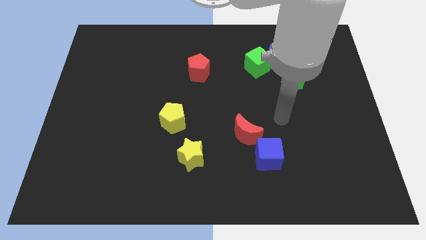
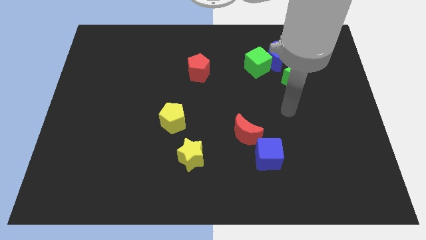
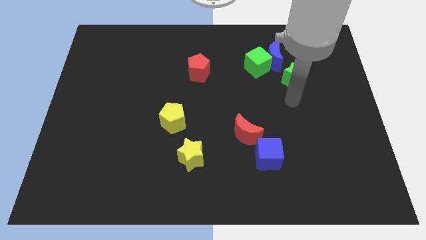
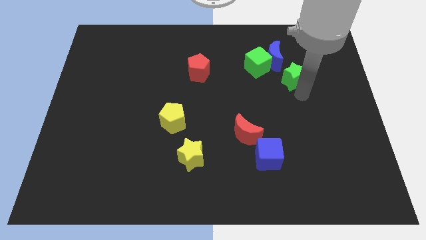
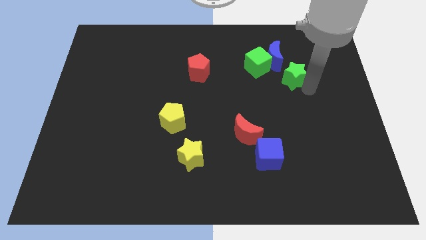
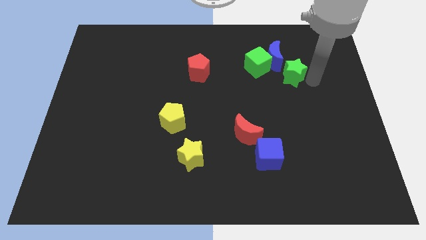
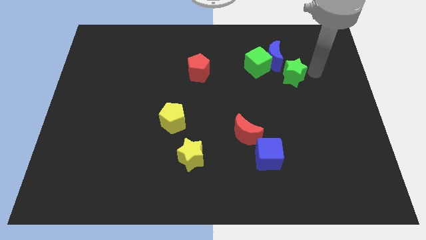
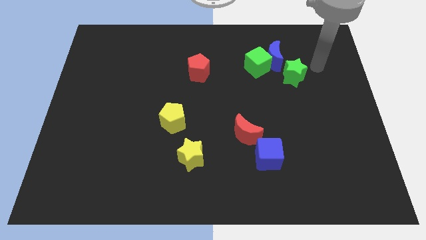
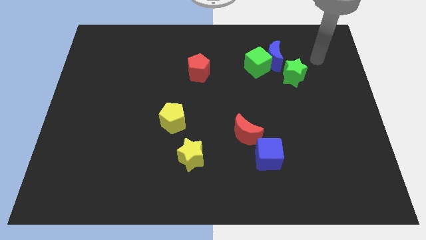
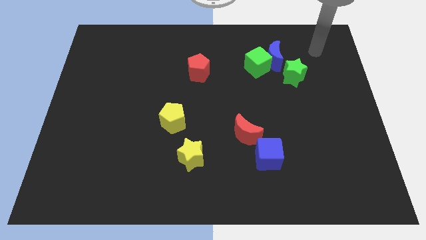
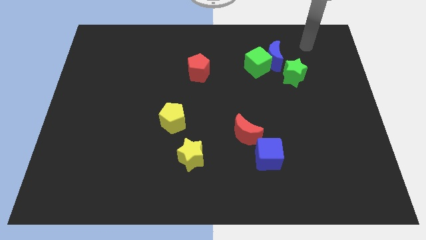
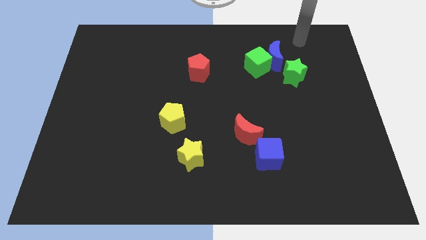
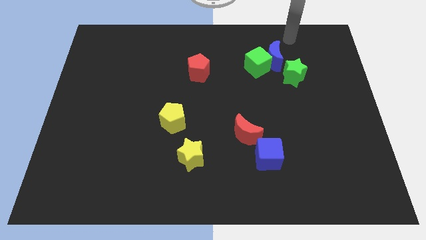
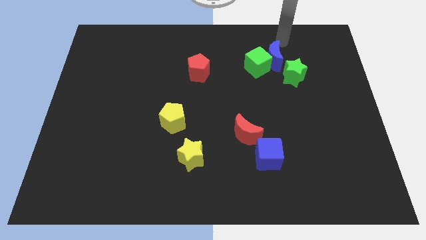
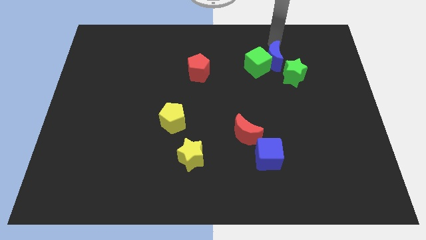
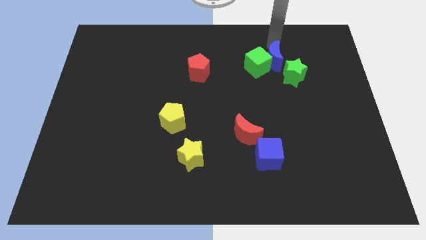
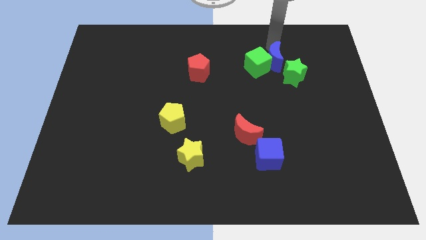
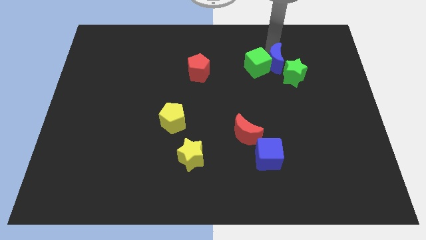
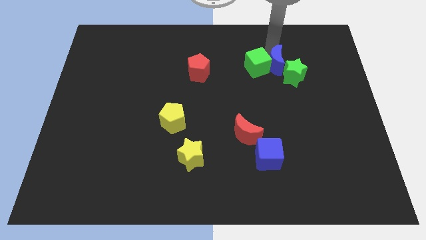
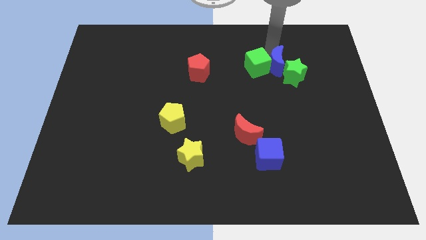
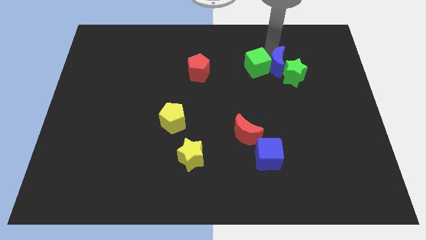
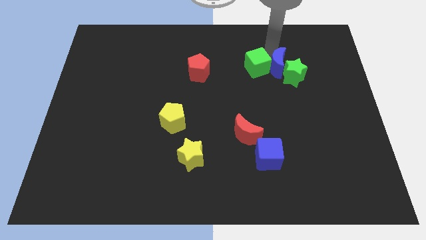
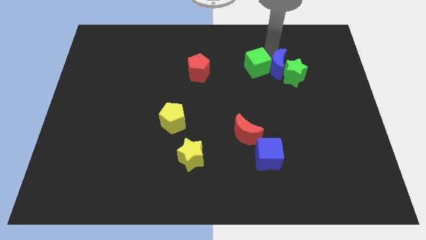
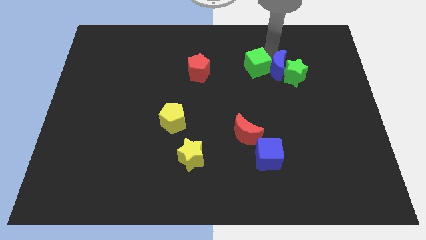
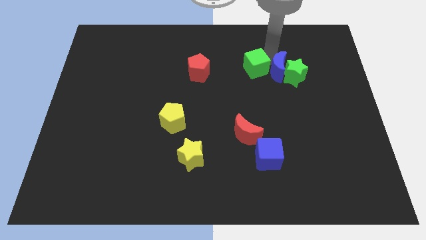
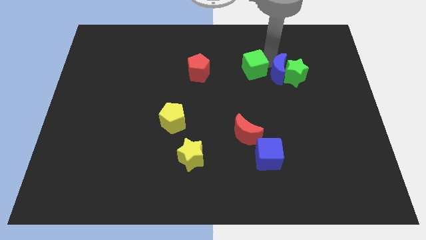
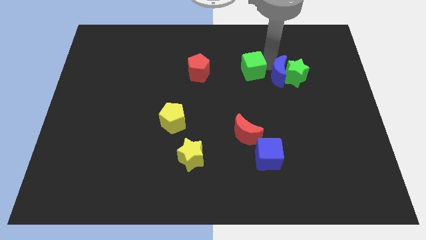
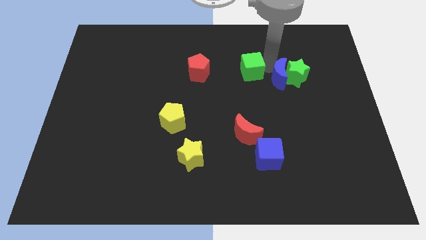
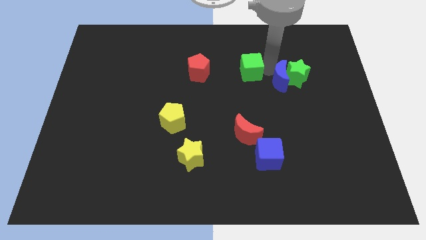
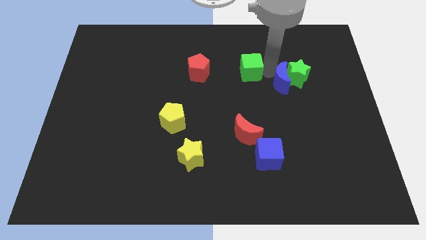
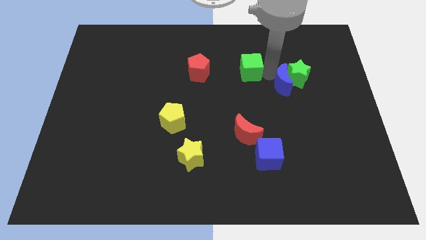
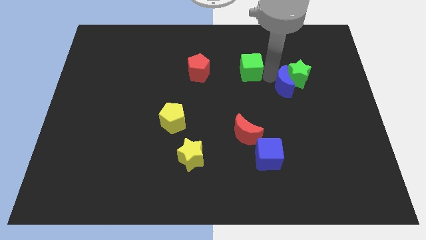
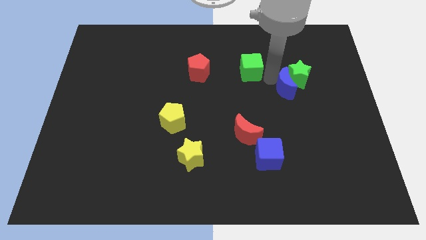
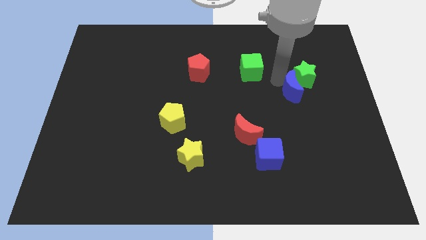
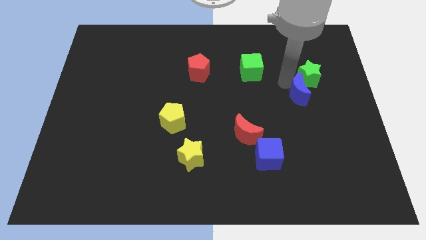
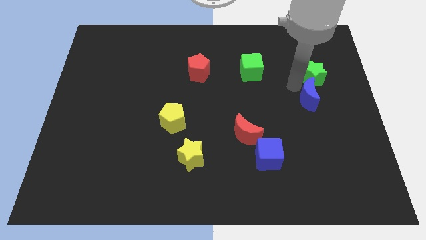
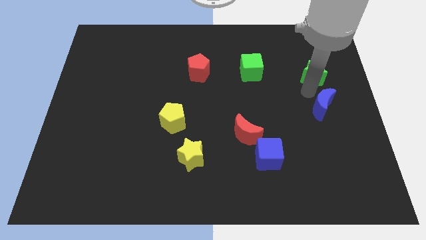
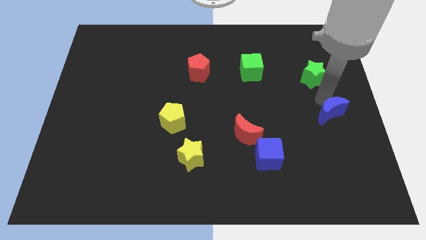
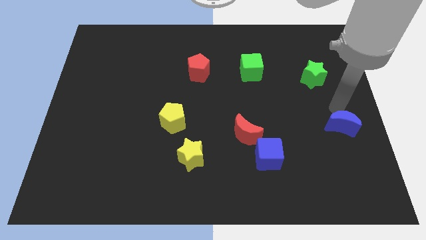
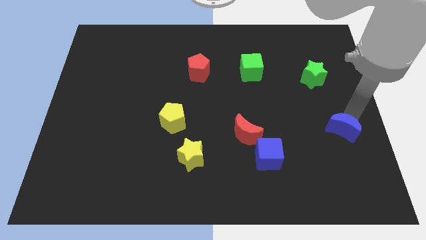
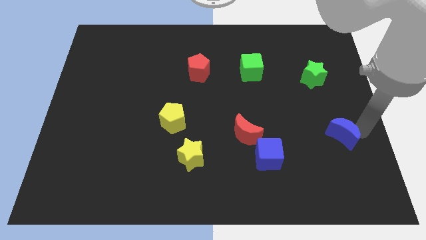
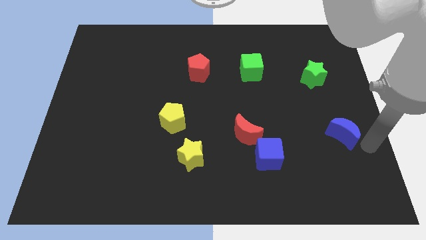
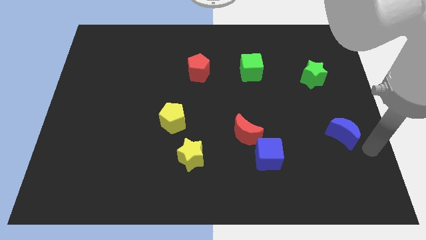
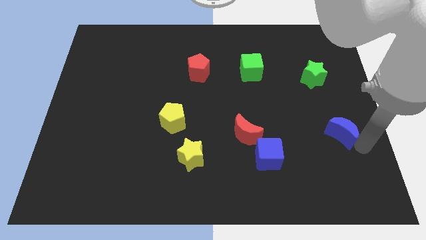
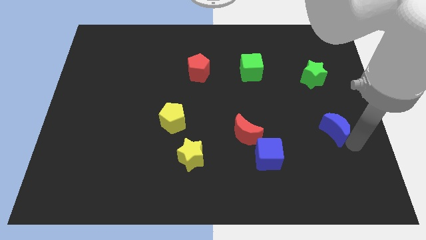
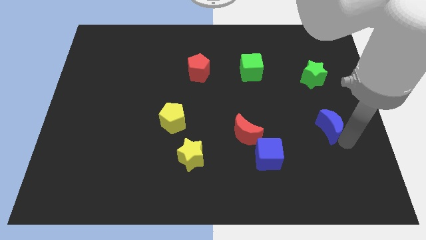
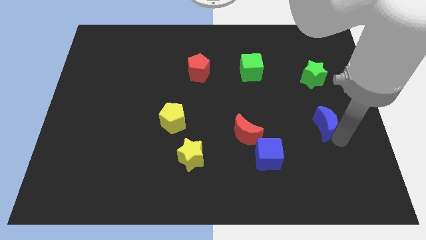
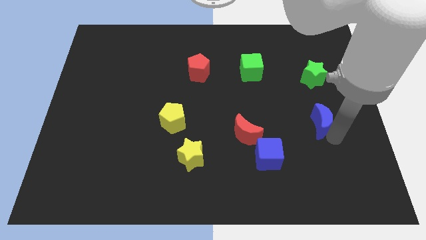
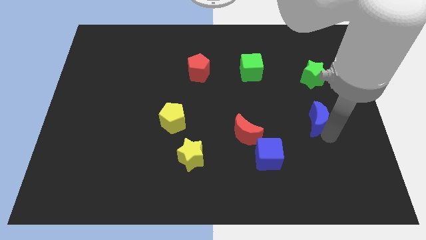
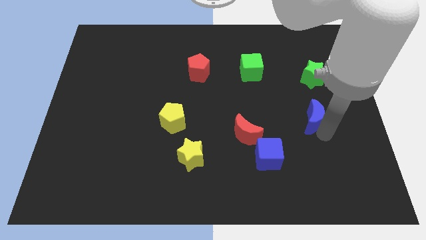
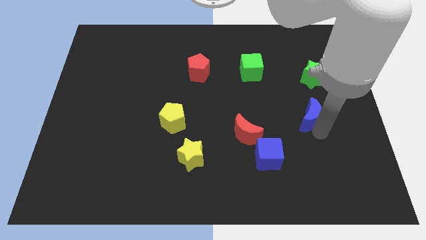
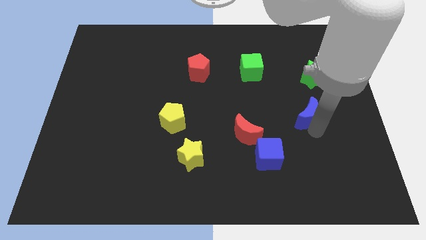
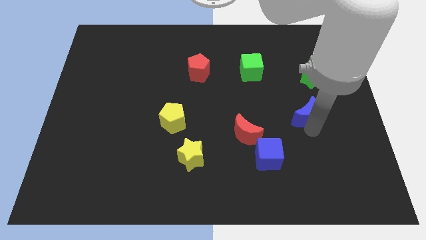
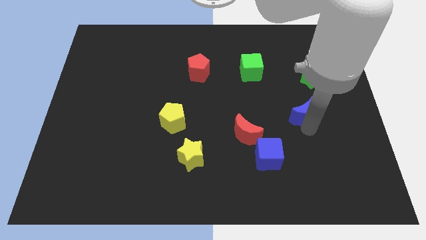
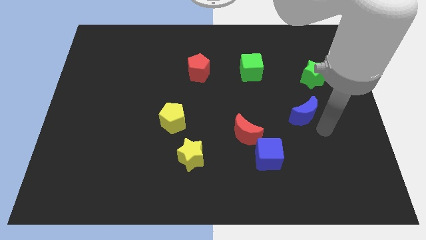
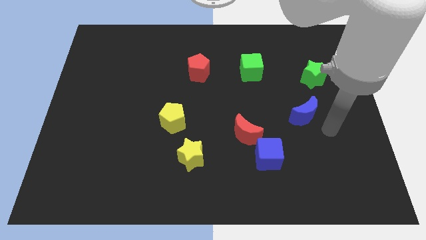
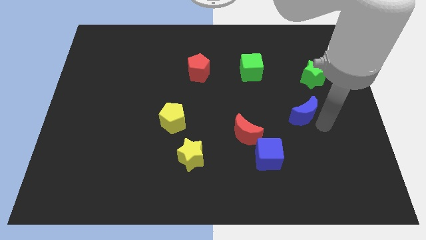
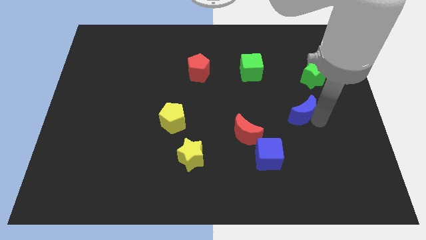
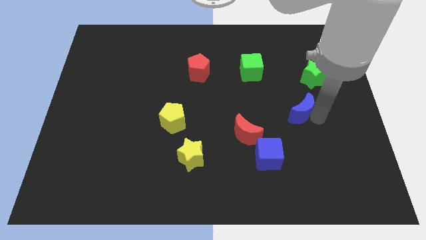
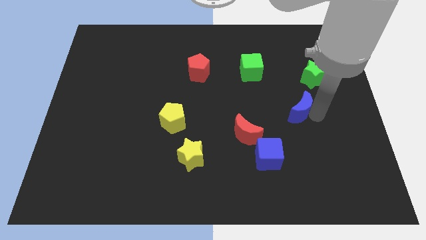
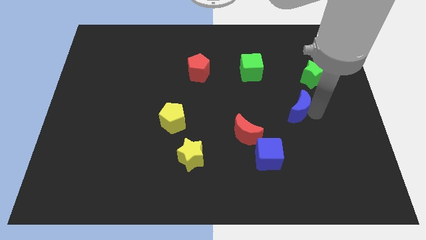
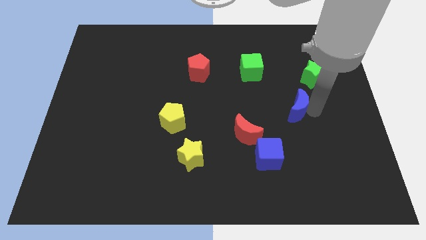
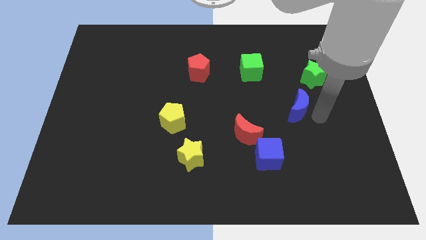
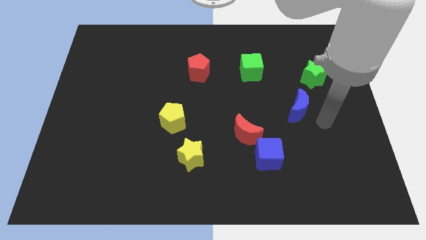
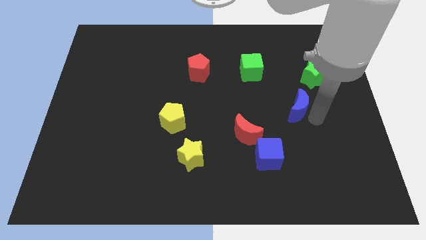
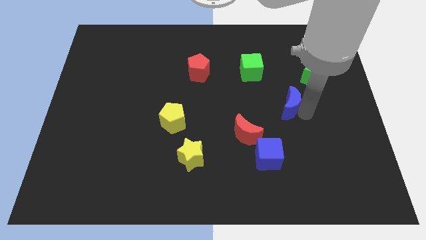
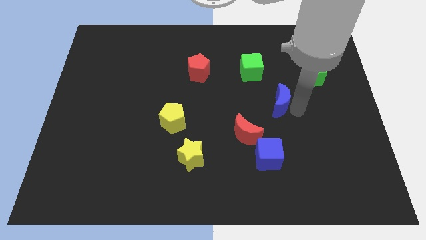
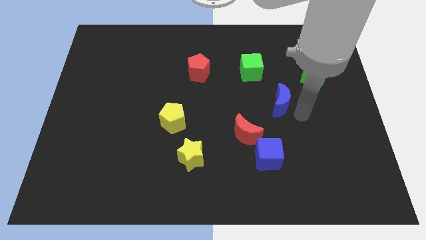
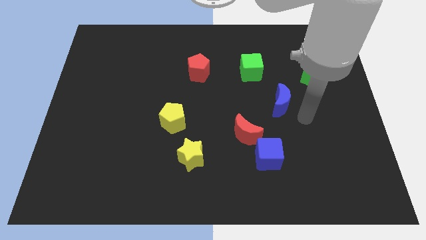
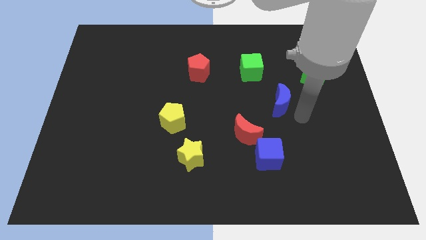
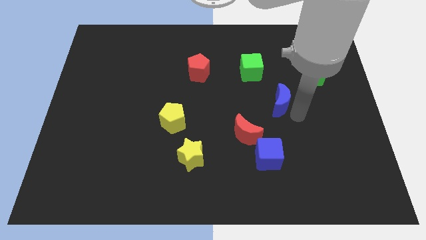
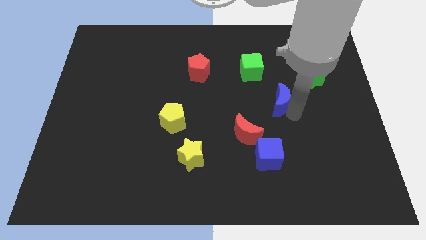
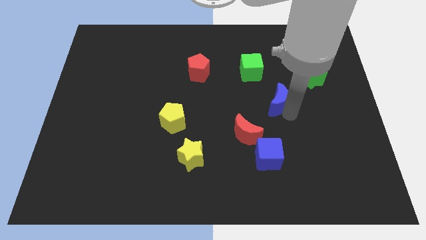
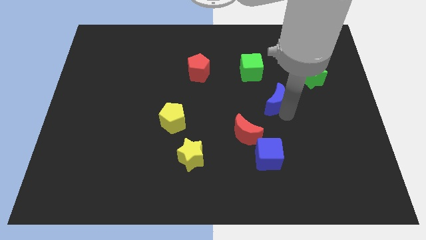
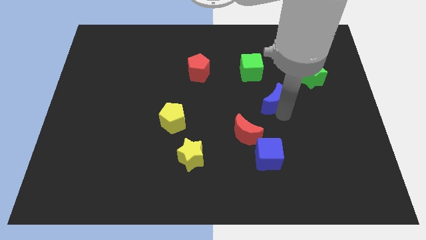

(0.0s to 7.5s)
slightly push the blue moon down and left diagonally

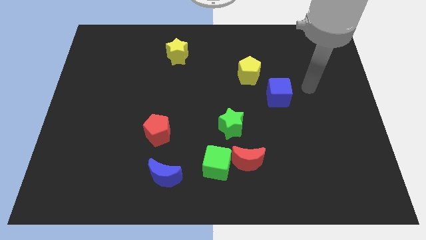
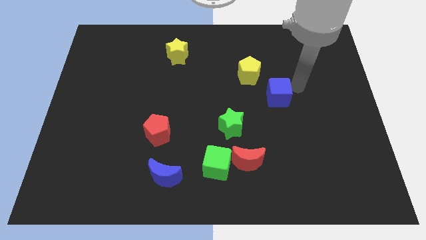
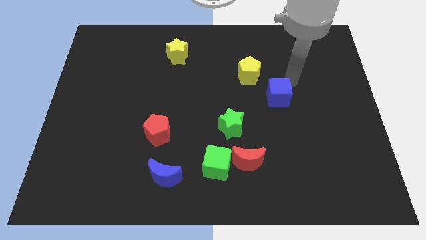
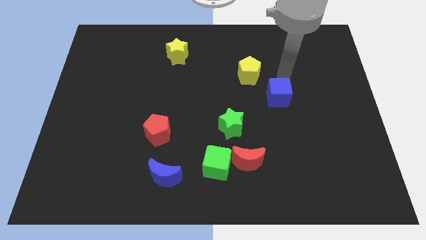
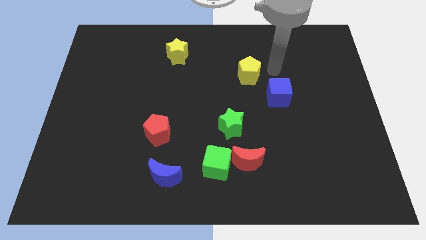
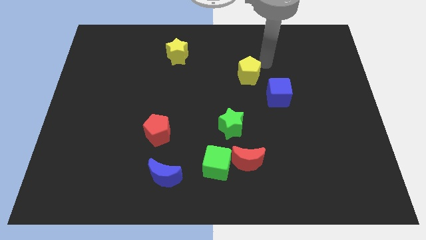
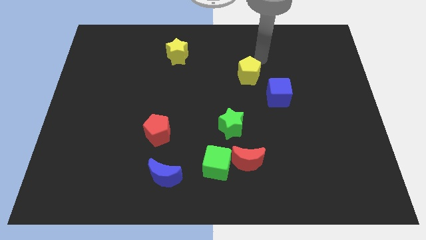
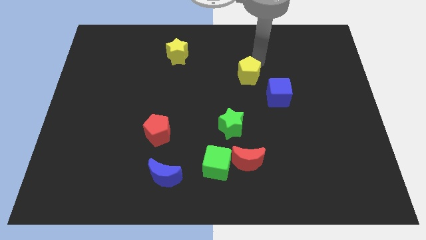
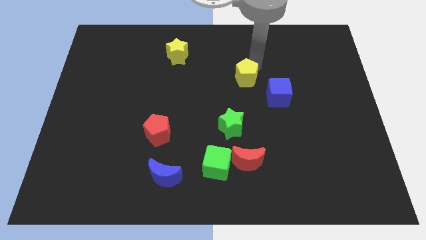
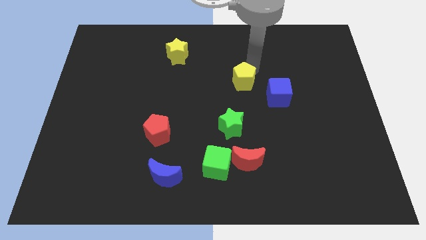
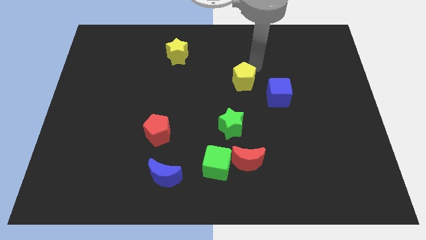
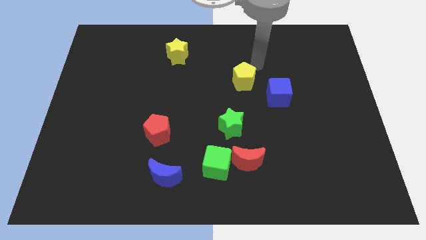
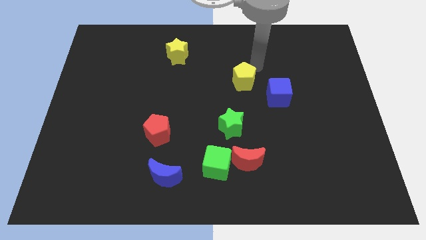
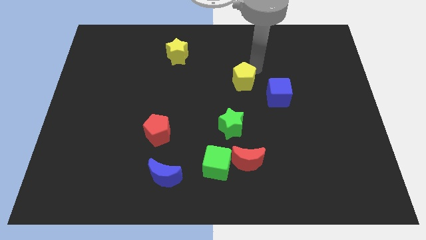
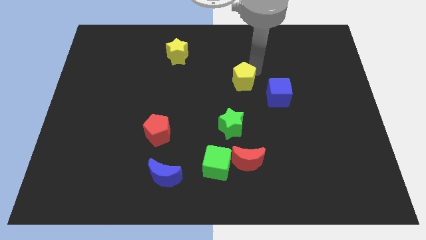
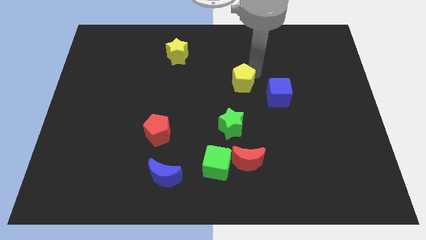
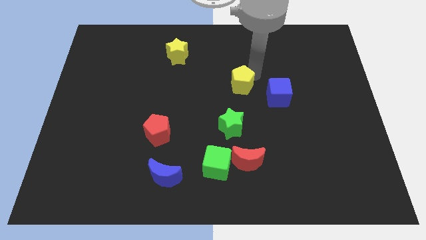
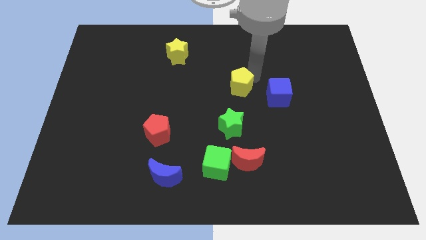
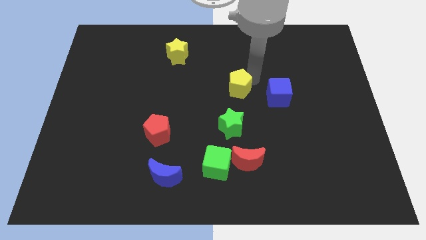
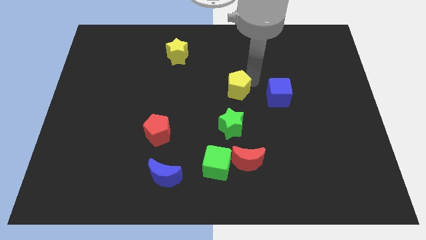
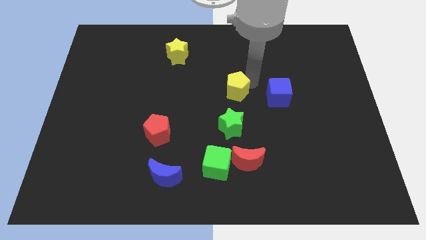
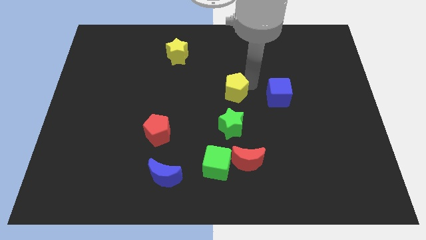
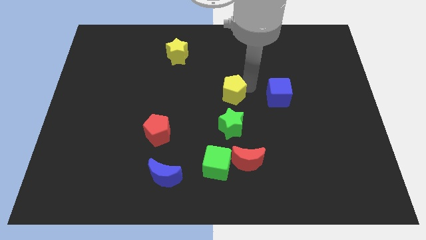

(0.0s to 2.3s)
slide the yellow pentagon somewhat diagonally down and to the left
